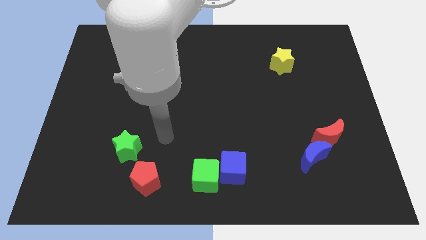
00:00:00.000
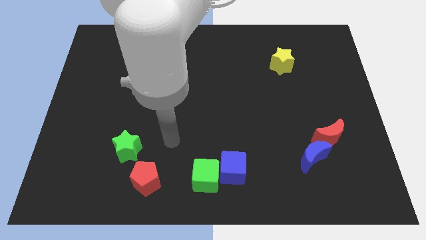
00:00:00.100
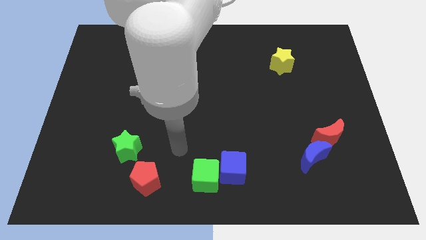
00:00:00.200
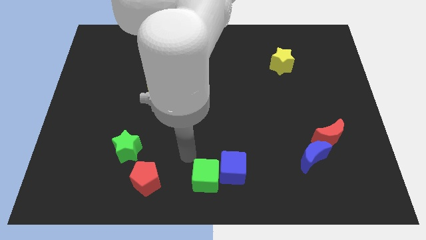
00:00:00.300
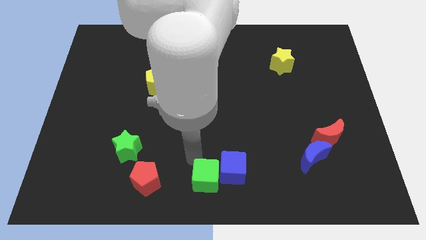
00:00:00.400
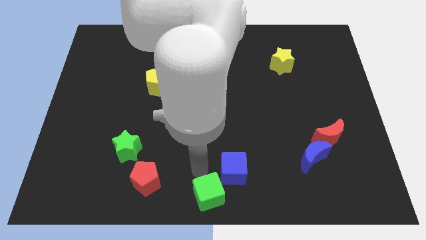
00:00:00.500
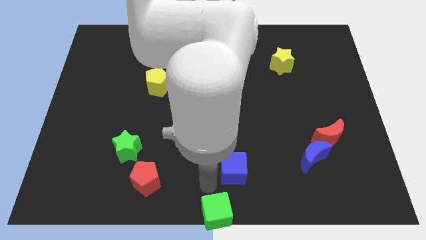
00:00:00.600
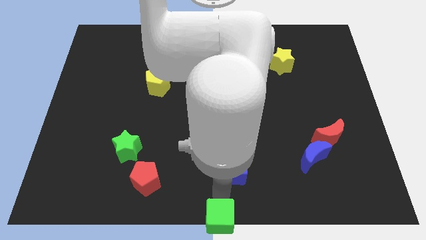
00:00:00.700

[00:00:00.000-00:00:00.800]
separate the blue cube from the green cube

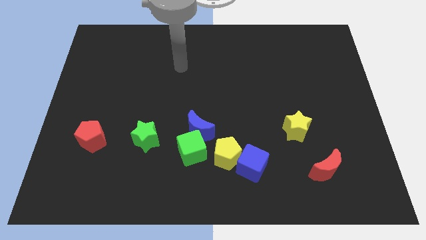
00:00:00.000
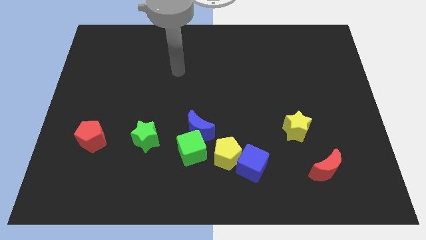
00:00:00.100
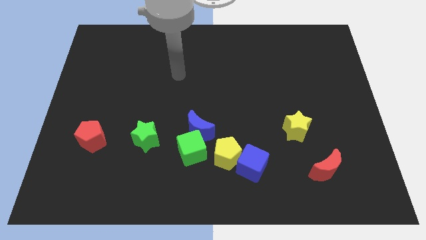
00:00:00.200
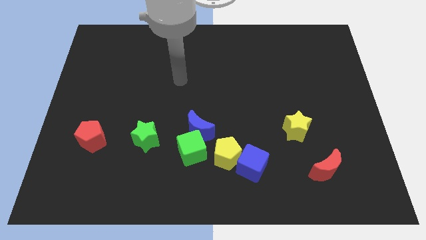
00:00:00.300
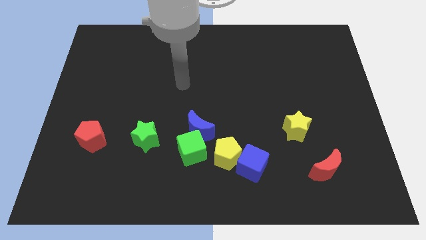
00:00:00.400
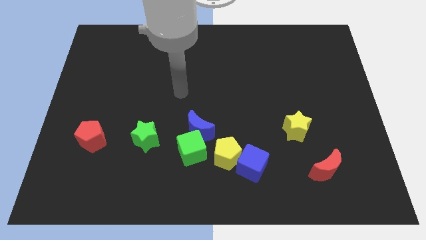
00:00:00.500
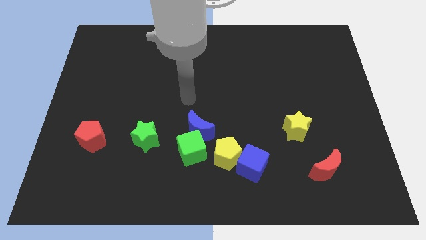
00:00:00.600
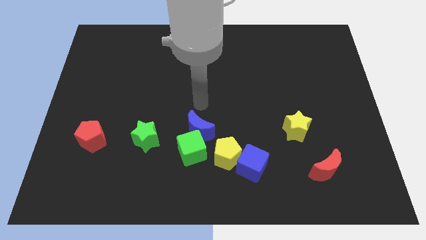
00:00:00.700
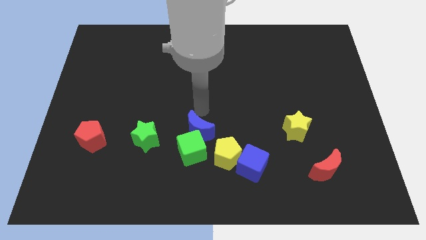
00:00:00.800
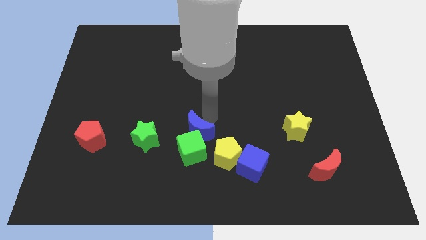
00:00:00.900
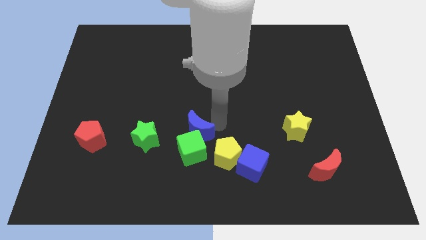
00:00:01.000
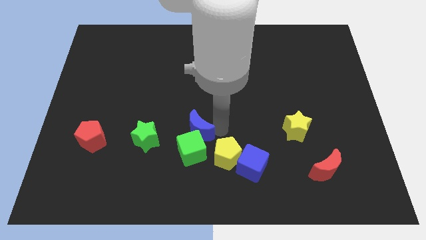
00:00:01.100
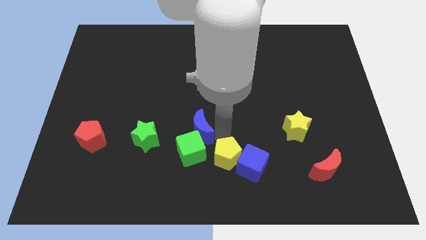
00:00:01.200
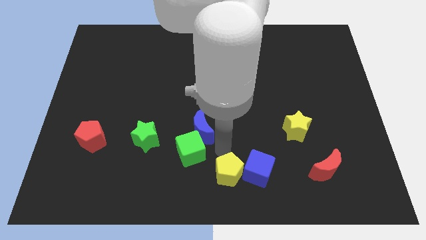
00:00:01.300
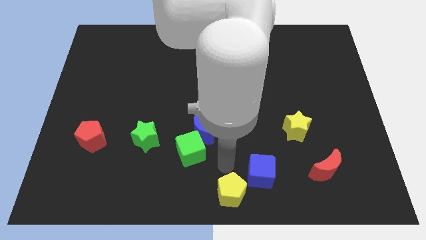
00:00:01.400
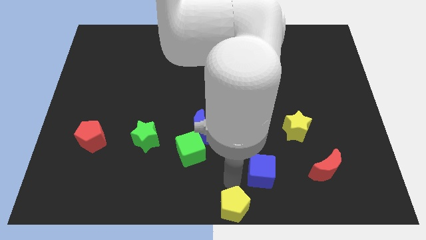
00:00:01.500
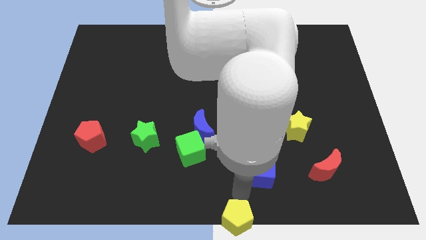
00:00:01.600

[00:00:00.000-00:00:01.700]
pull the blue cube apart from the yellow pentagon

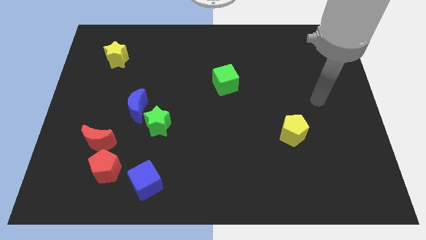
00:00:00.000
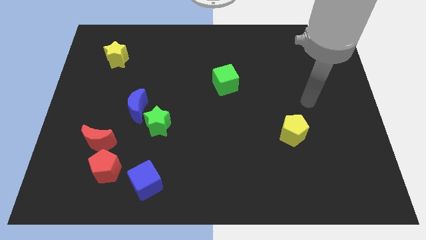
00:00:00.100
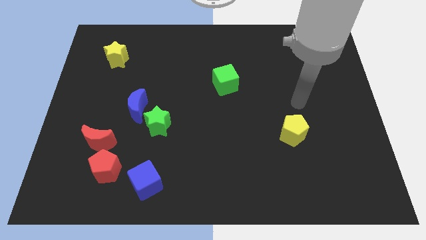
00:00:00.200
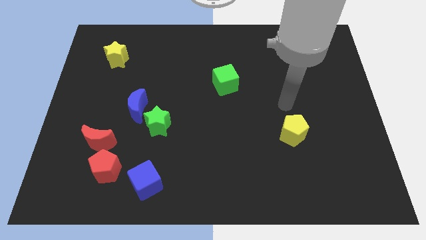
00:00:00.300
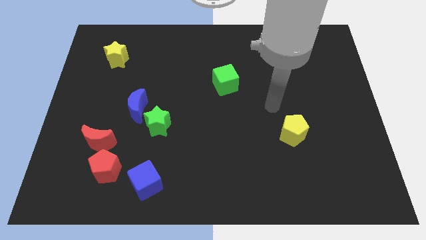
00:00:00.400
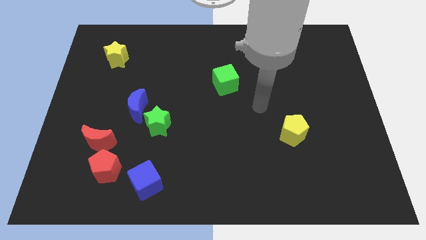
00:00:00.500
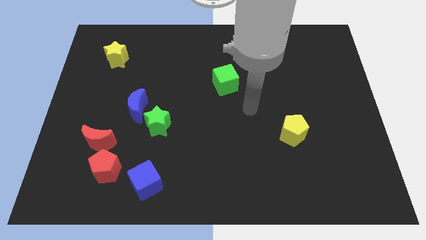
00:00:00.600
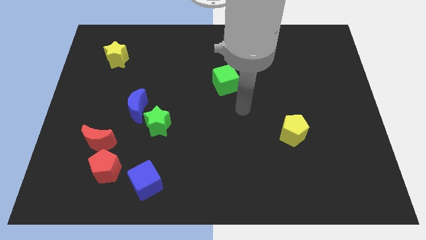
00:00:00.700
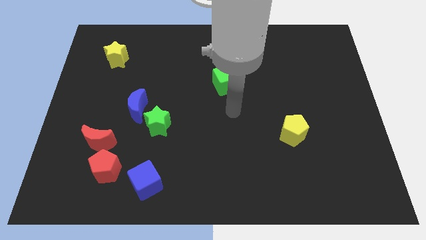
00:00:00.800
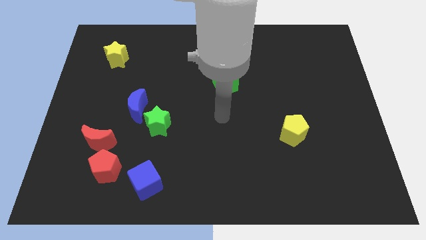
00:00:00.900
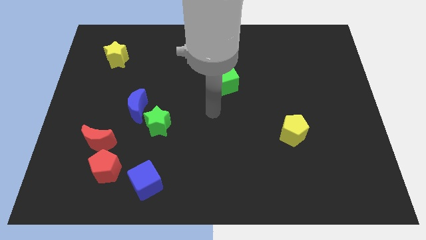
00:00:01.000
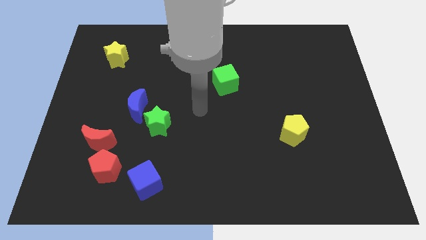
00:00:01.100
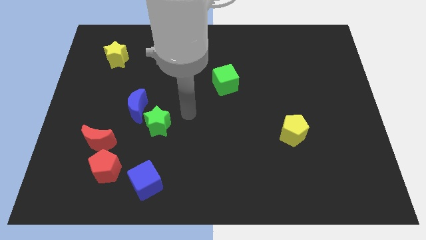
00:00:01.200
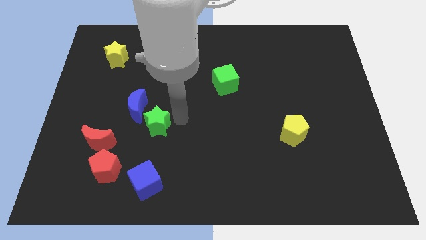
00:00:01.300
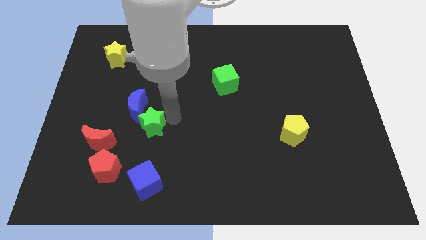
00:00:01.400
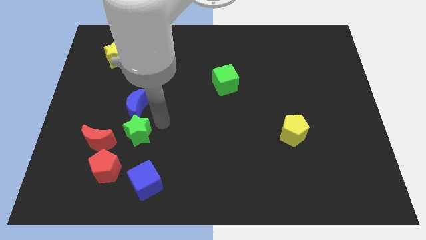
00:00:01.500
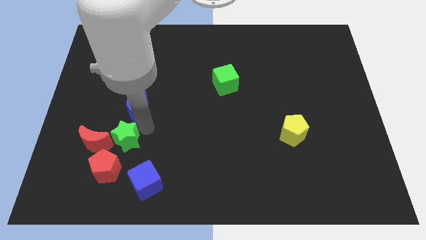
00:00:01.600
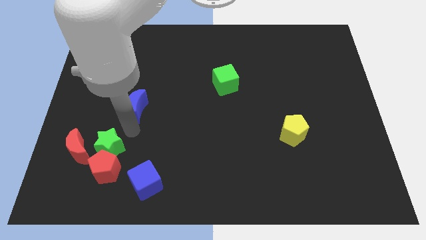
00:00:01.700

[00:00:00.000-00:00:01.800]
separate the blue moon from the green star

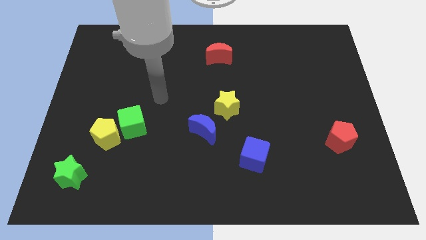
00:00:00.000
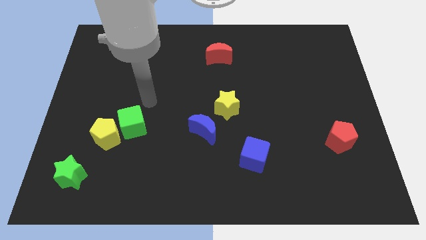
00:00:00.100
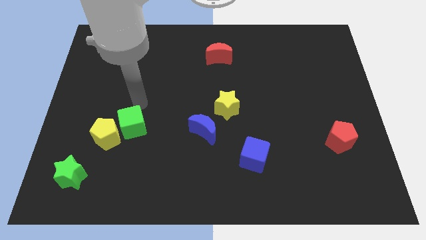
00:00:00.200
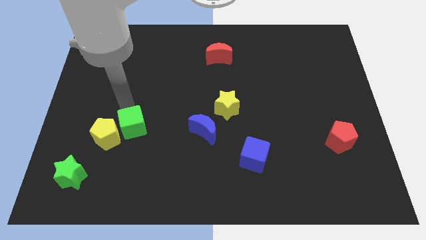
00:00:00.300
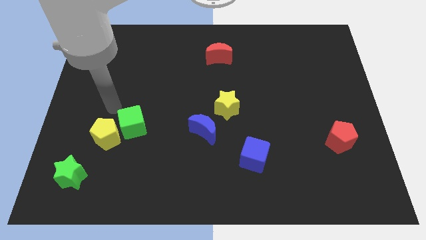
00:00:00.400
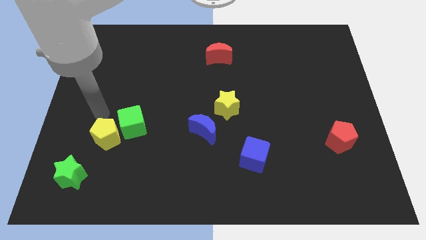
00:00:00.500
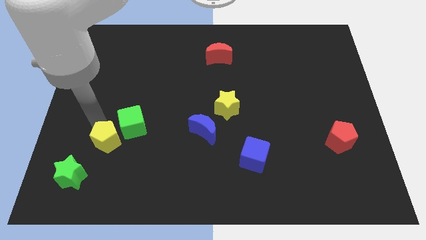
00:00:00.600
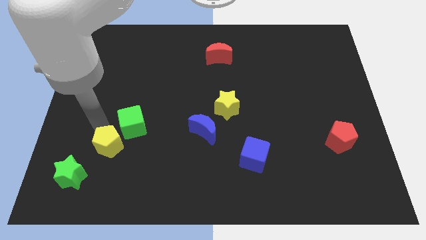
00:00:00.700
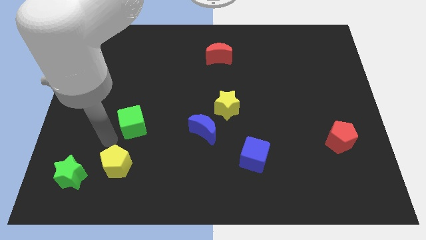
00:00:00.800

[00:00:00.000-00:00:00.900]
pull the green cube apart from the yellow pentagon

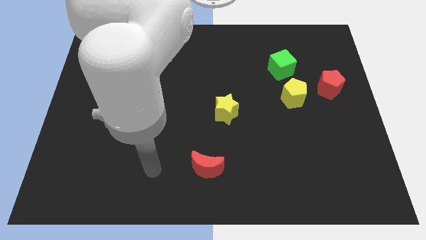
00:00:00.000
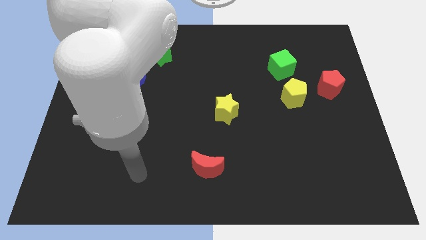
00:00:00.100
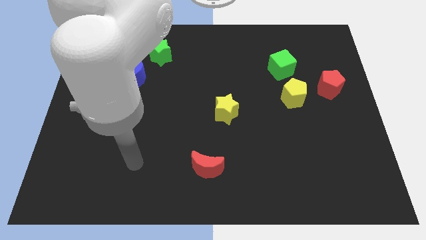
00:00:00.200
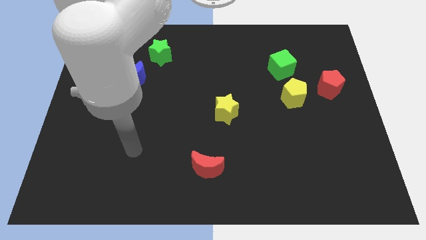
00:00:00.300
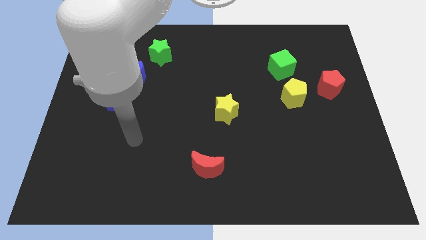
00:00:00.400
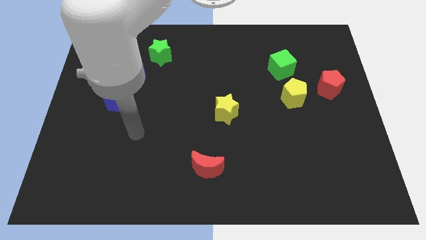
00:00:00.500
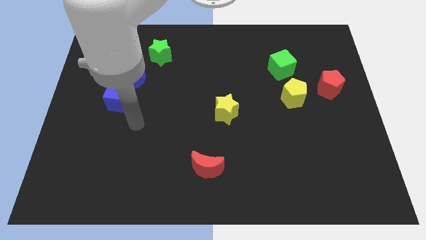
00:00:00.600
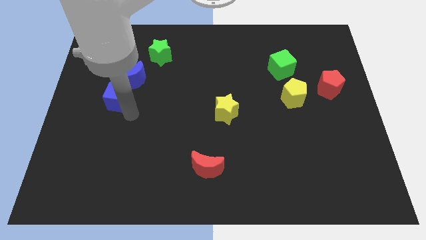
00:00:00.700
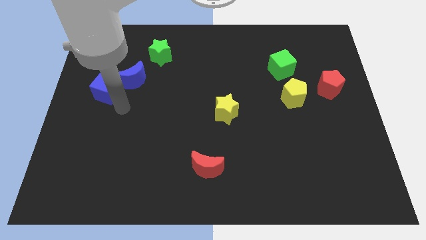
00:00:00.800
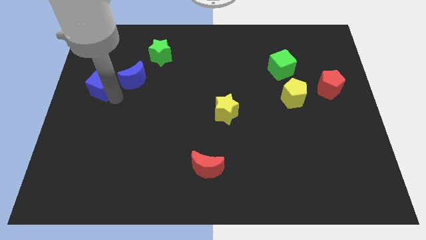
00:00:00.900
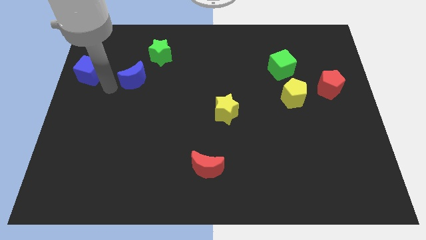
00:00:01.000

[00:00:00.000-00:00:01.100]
pull the blue moon apart from the blue cube

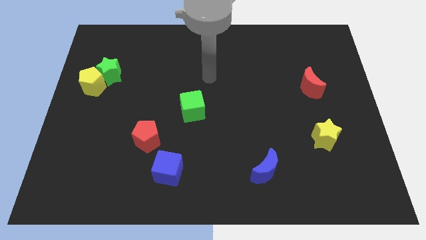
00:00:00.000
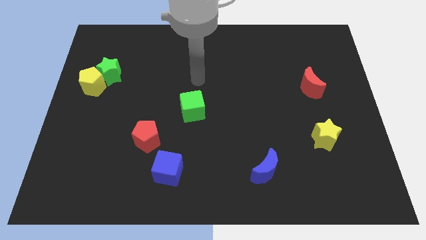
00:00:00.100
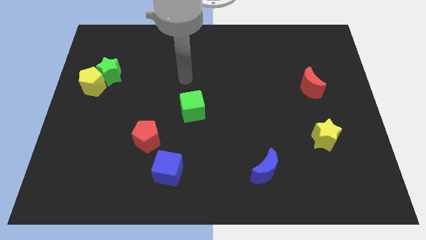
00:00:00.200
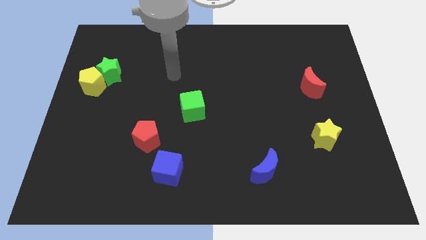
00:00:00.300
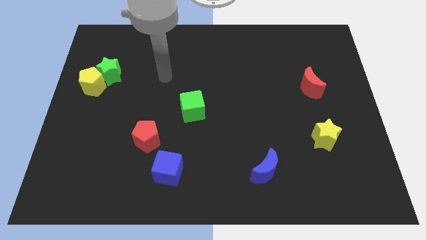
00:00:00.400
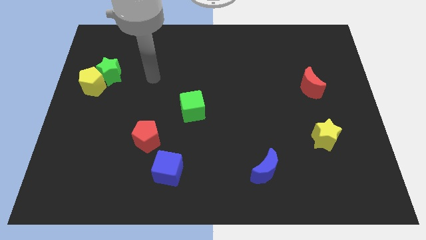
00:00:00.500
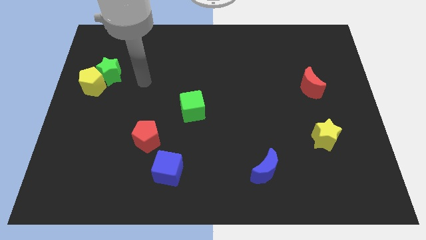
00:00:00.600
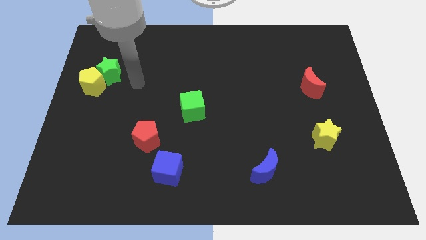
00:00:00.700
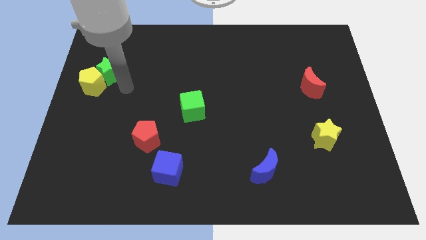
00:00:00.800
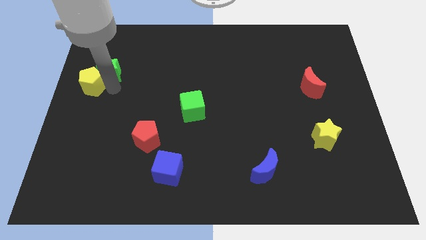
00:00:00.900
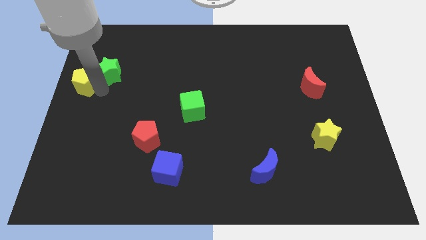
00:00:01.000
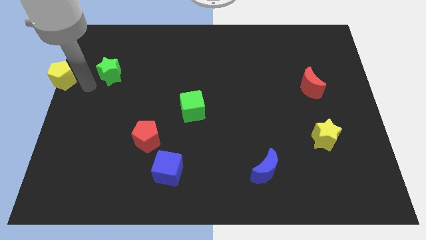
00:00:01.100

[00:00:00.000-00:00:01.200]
separate the green star from the yellow pentagon

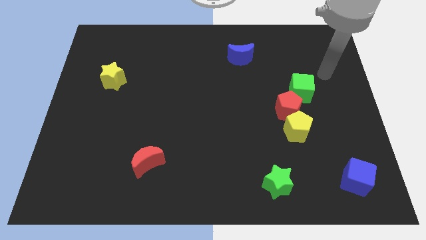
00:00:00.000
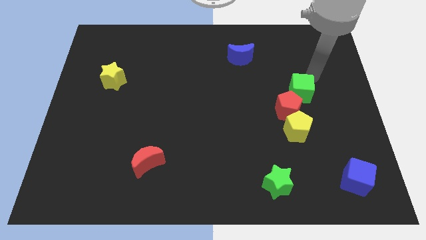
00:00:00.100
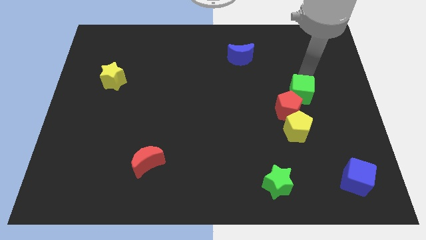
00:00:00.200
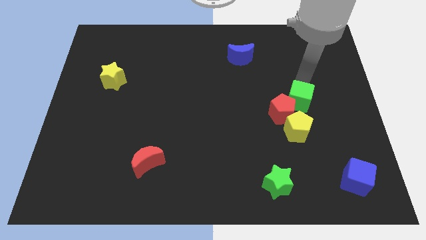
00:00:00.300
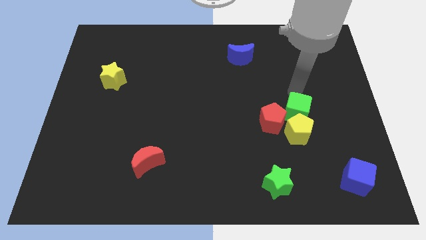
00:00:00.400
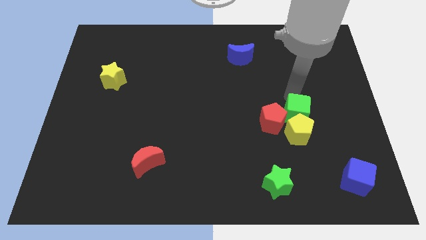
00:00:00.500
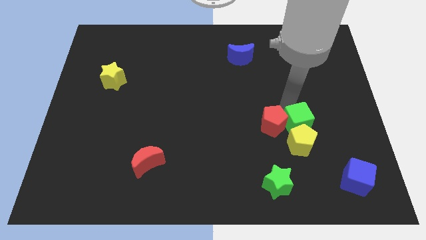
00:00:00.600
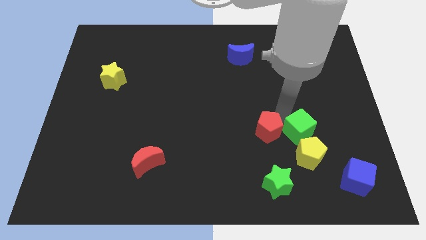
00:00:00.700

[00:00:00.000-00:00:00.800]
pull the yellow pentagon apart from the red pentagon

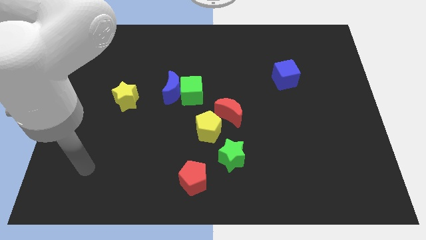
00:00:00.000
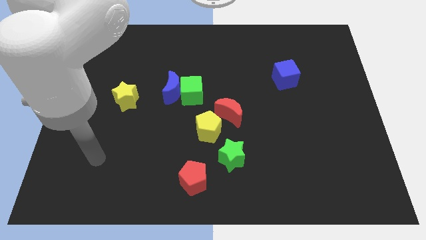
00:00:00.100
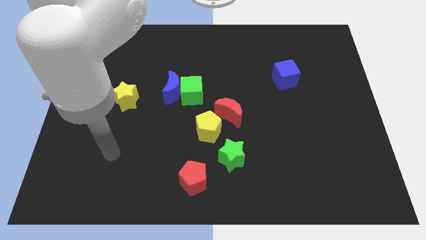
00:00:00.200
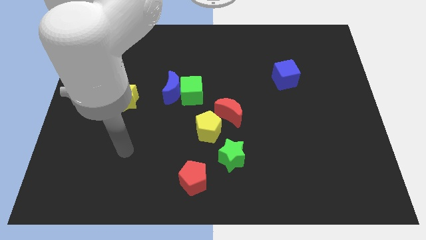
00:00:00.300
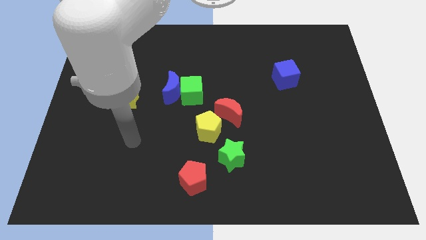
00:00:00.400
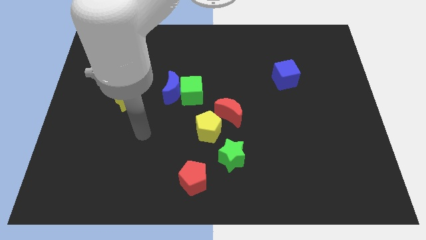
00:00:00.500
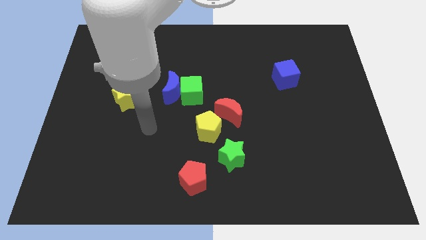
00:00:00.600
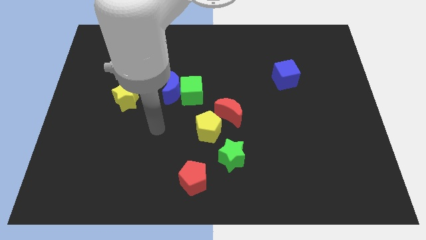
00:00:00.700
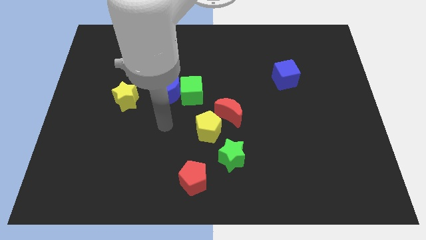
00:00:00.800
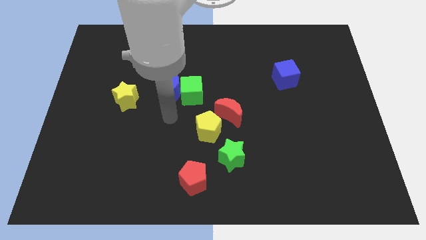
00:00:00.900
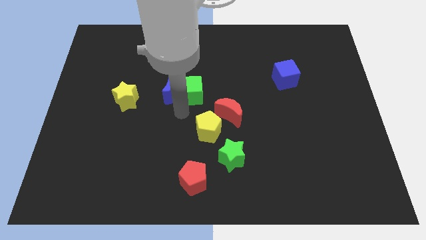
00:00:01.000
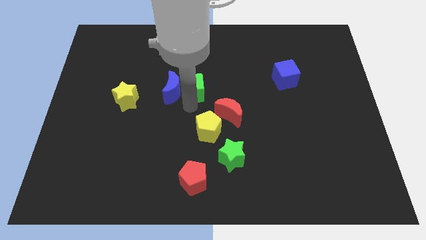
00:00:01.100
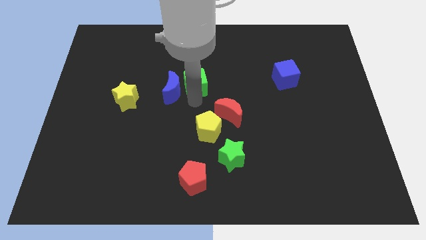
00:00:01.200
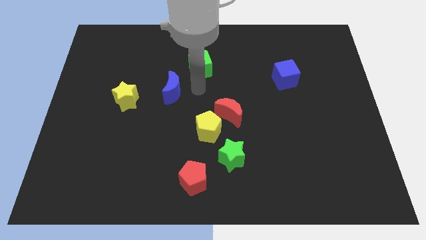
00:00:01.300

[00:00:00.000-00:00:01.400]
separate the blue moon from the green cube
